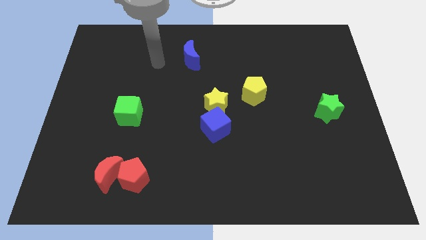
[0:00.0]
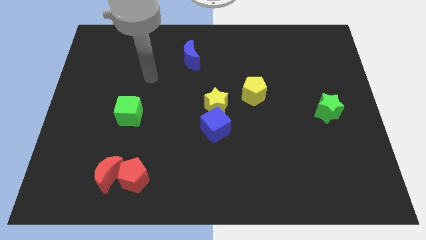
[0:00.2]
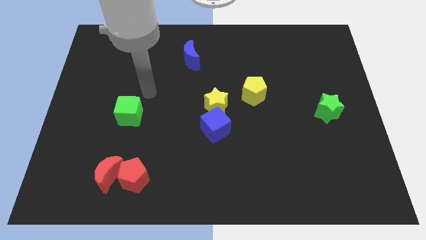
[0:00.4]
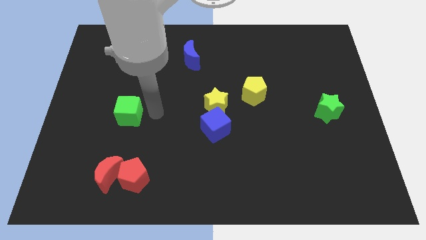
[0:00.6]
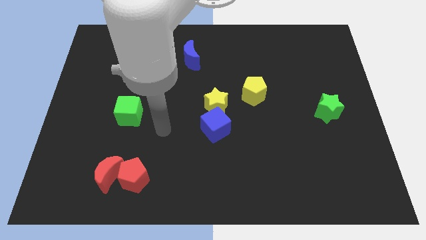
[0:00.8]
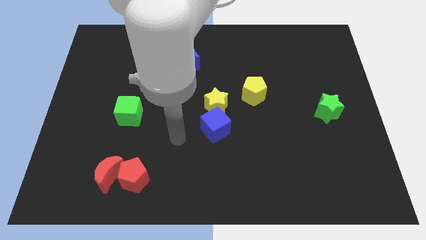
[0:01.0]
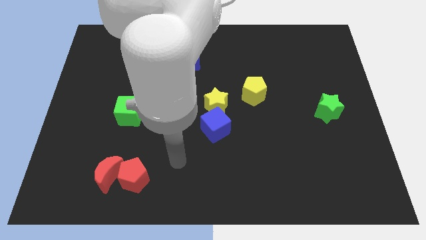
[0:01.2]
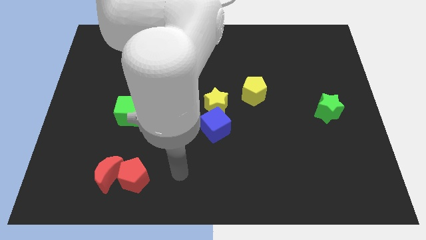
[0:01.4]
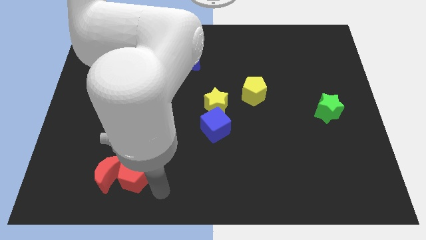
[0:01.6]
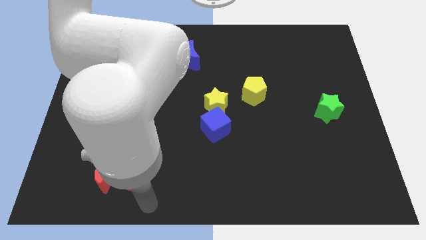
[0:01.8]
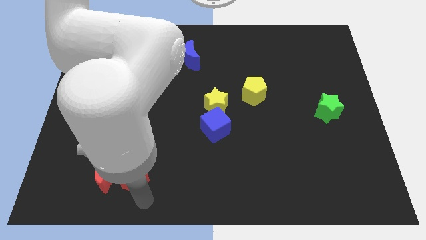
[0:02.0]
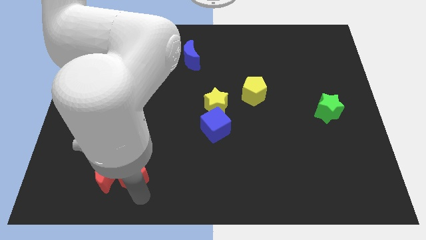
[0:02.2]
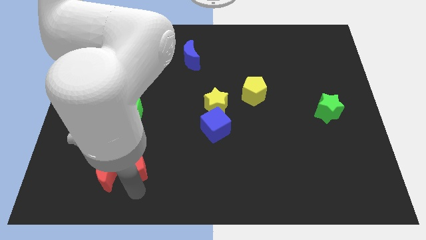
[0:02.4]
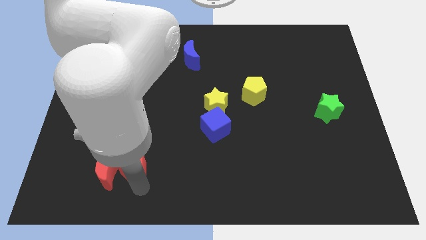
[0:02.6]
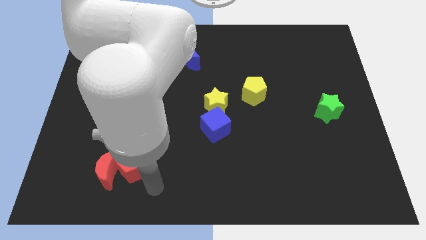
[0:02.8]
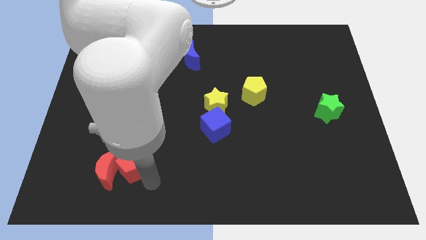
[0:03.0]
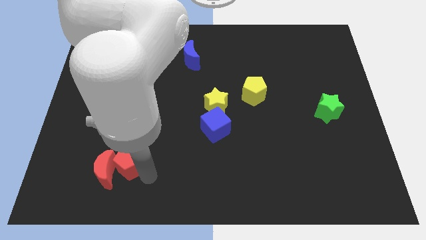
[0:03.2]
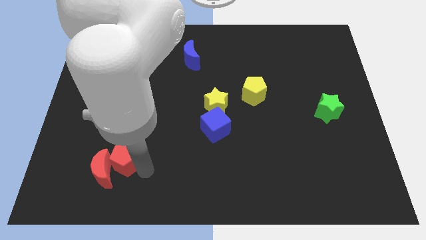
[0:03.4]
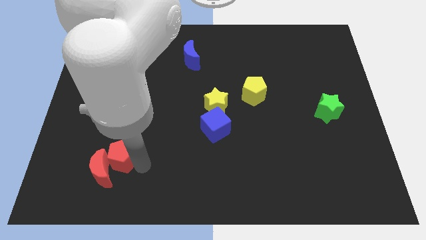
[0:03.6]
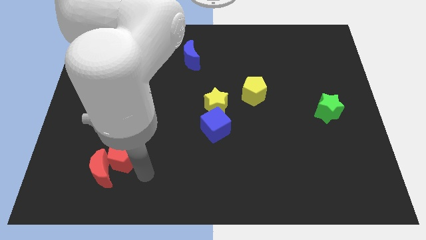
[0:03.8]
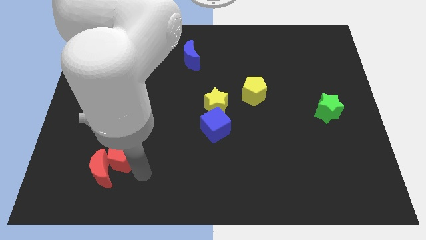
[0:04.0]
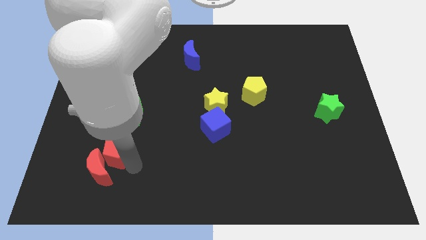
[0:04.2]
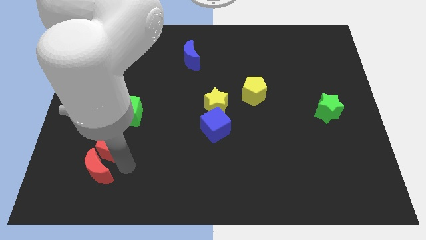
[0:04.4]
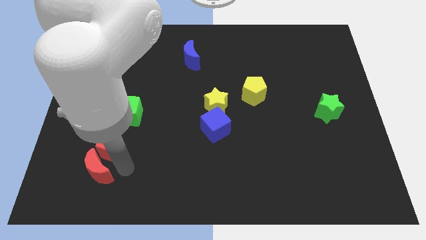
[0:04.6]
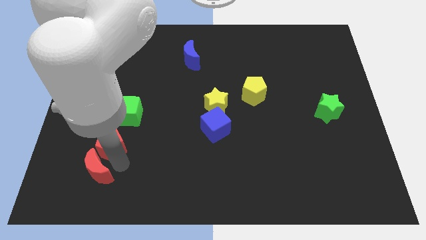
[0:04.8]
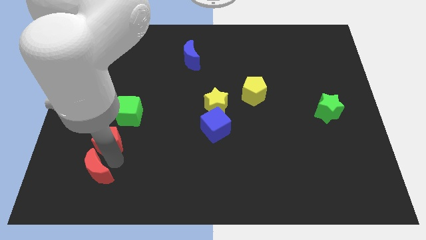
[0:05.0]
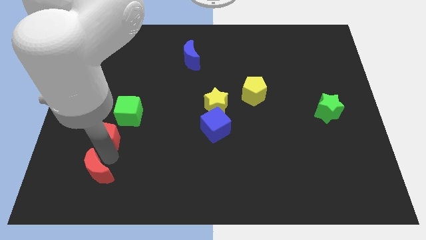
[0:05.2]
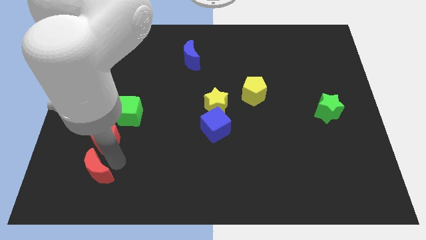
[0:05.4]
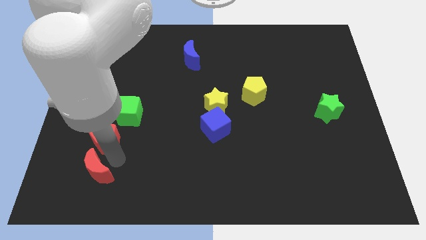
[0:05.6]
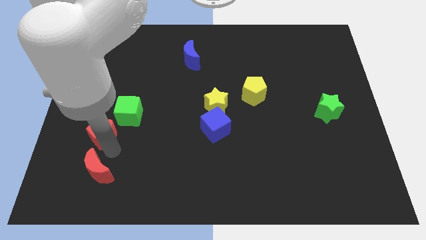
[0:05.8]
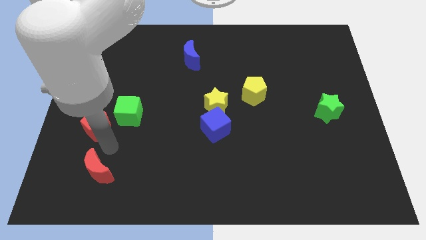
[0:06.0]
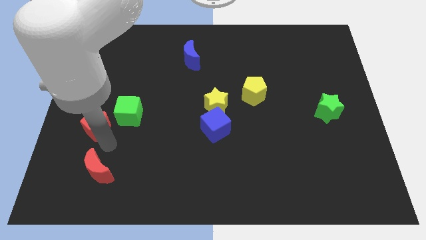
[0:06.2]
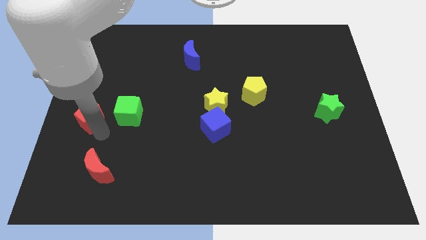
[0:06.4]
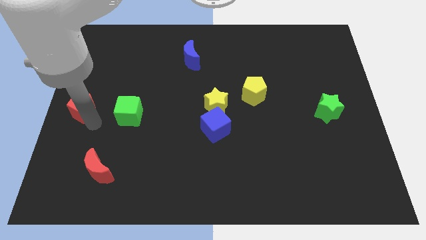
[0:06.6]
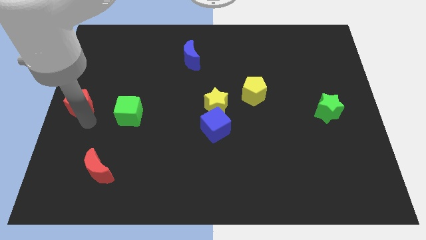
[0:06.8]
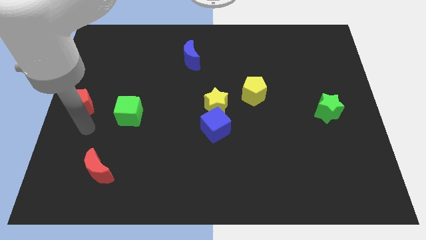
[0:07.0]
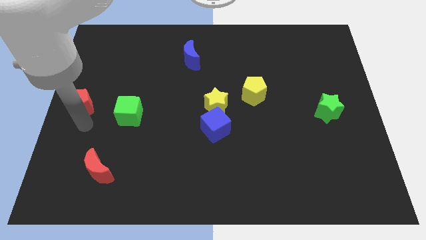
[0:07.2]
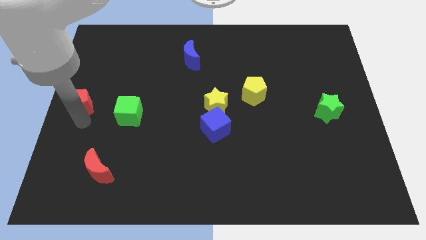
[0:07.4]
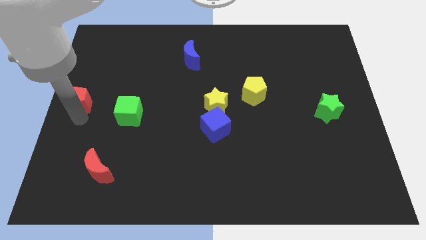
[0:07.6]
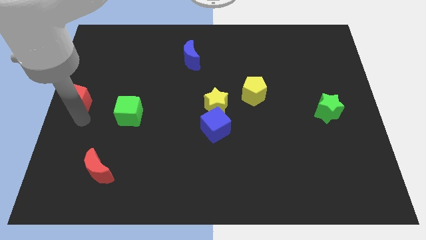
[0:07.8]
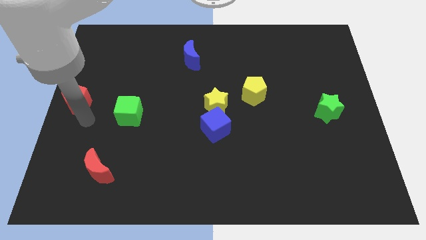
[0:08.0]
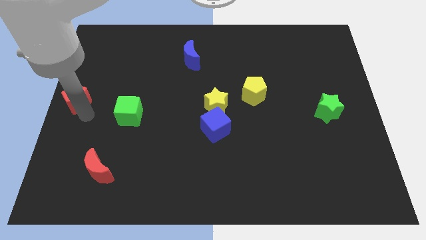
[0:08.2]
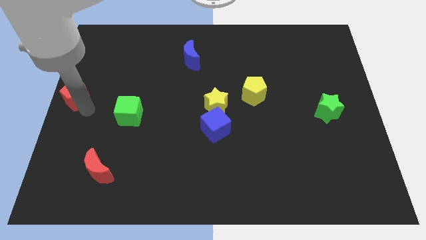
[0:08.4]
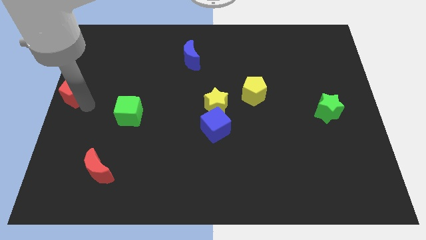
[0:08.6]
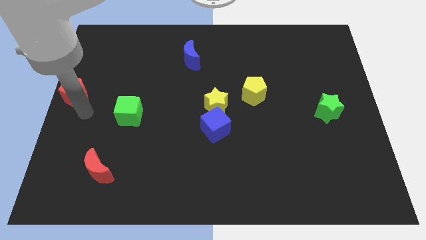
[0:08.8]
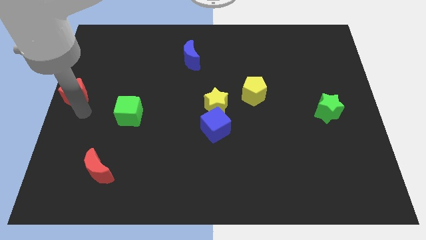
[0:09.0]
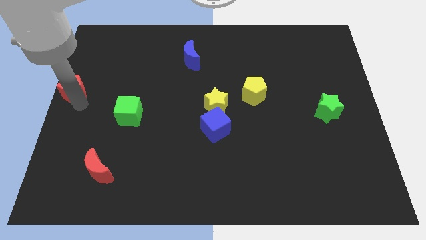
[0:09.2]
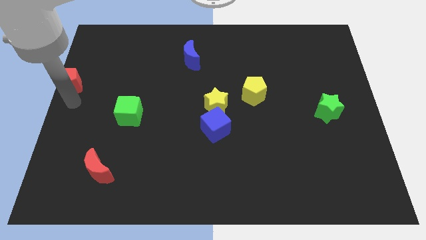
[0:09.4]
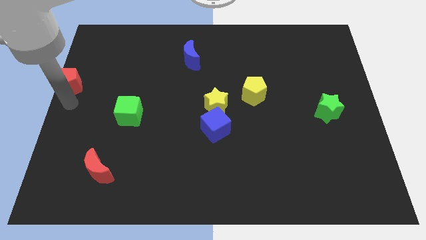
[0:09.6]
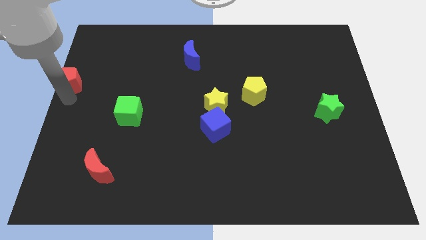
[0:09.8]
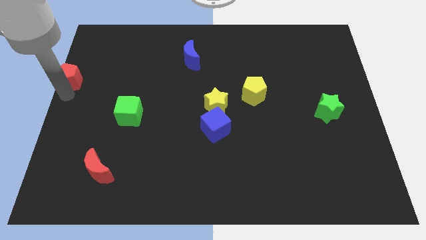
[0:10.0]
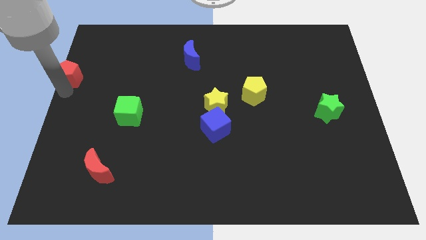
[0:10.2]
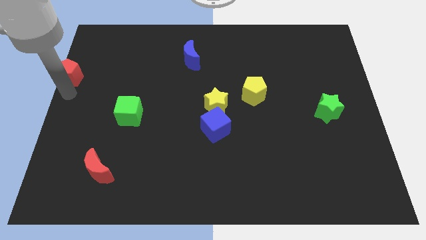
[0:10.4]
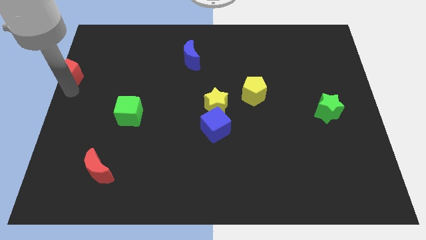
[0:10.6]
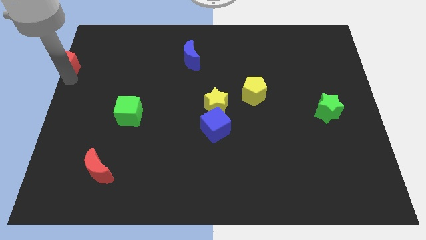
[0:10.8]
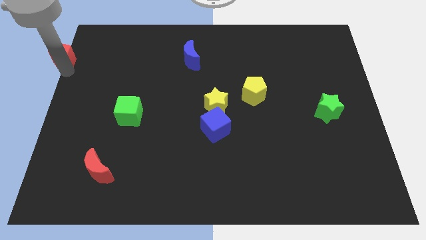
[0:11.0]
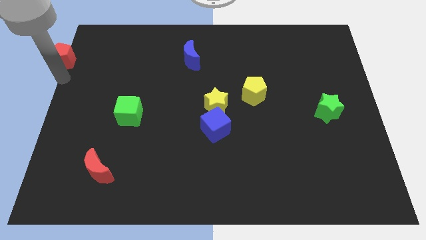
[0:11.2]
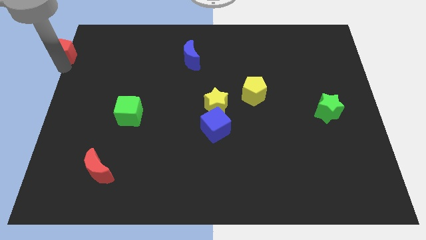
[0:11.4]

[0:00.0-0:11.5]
slide the red pentagon to the top left

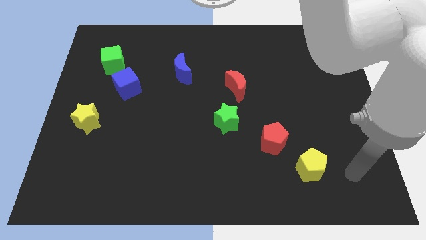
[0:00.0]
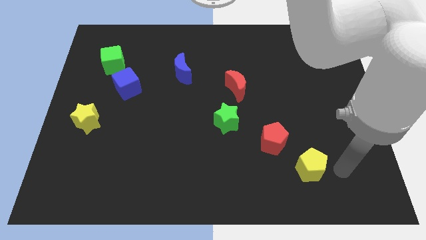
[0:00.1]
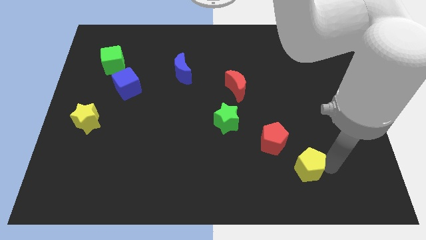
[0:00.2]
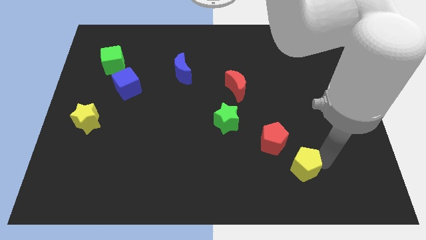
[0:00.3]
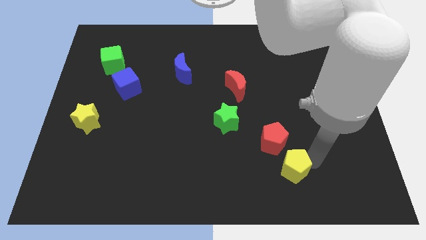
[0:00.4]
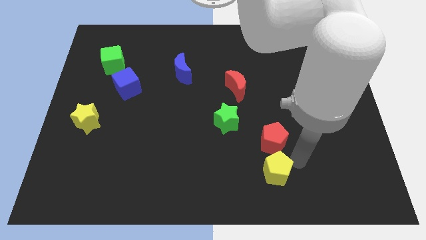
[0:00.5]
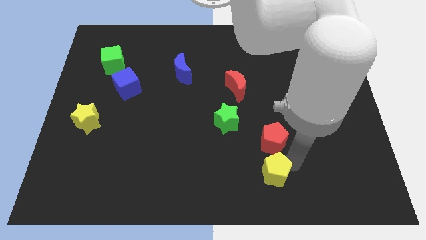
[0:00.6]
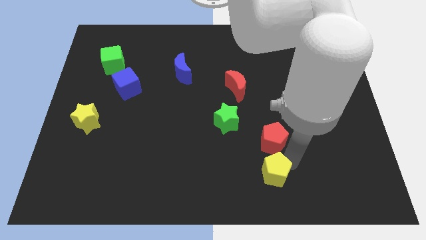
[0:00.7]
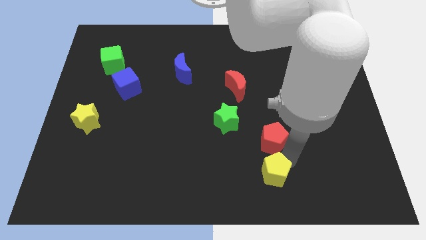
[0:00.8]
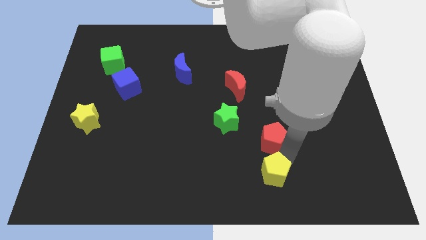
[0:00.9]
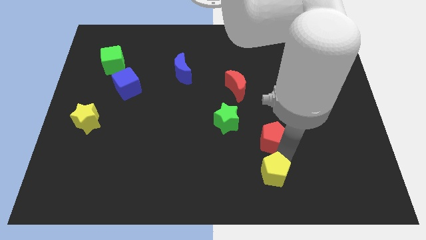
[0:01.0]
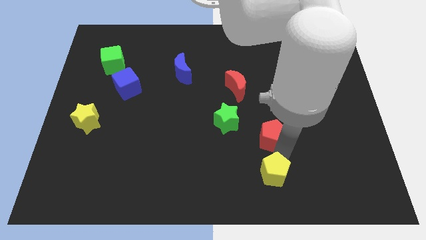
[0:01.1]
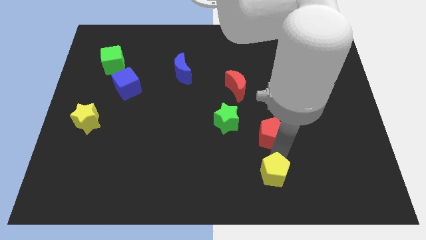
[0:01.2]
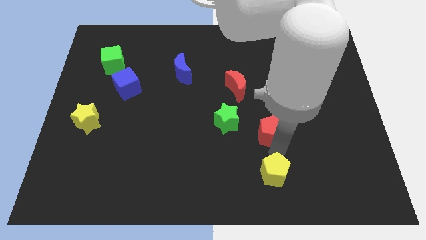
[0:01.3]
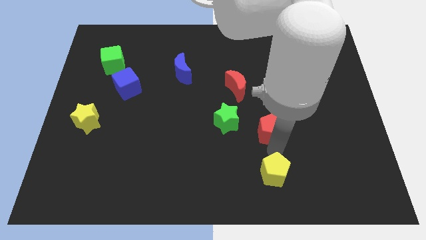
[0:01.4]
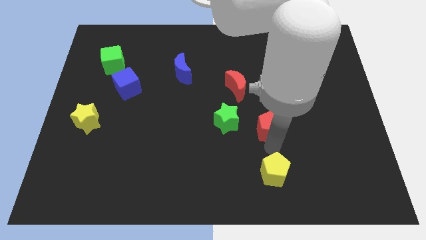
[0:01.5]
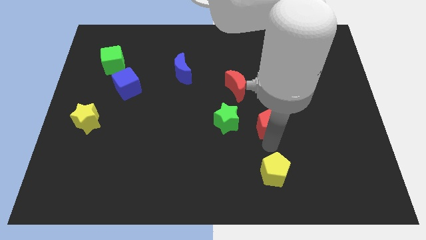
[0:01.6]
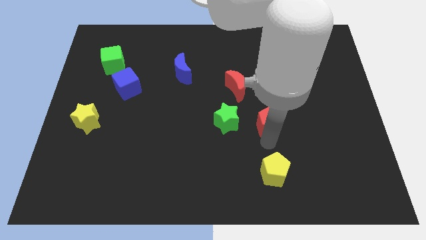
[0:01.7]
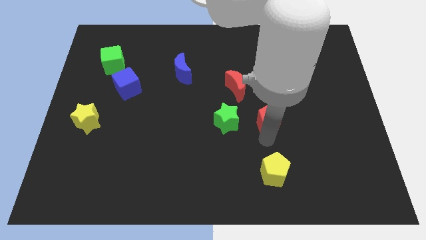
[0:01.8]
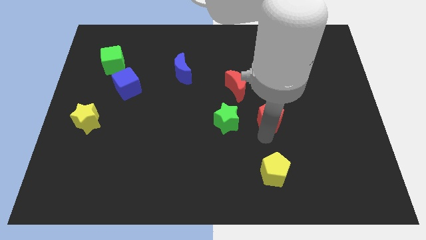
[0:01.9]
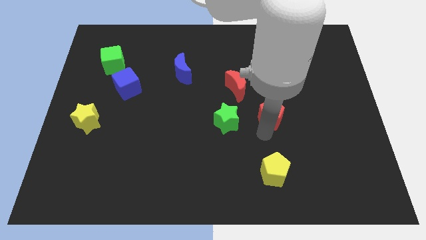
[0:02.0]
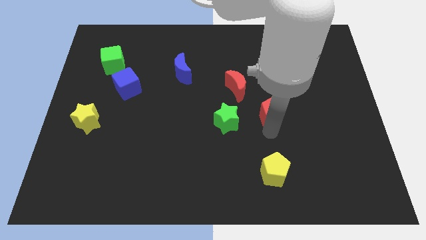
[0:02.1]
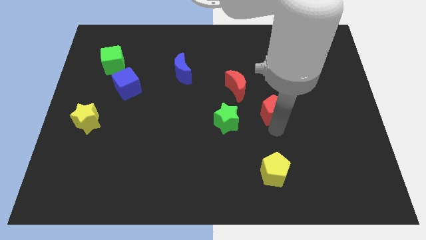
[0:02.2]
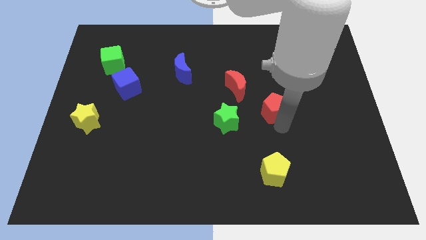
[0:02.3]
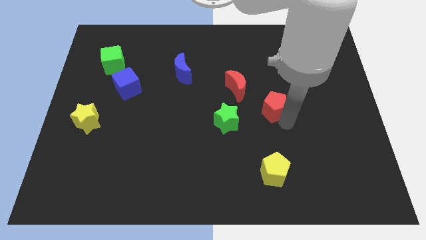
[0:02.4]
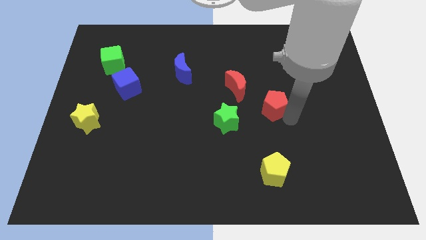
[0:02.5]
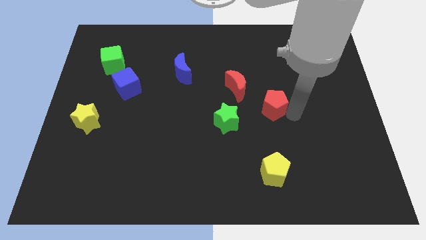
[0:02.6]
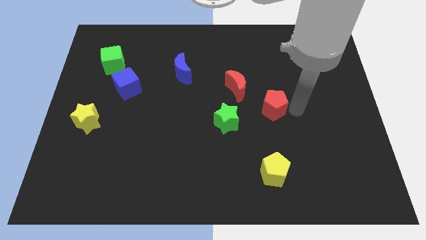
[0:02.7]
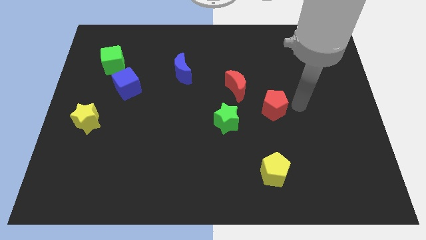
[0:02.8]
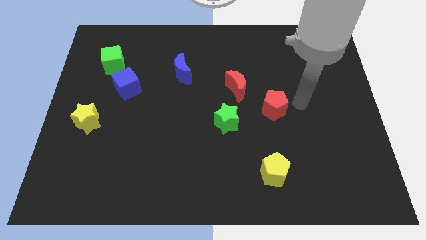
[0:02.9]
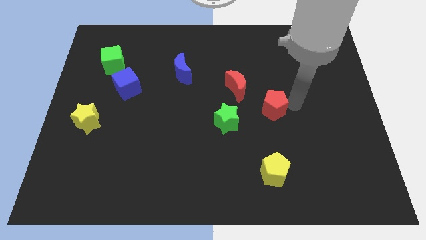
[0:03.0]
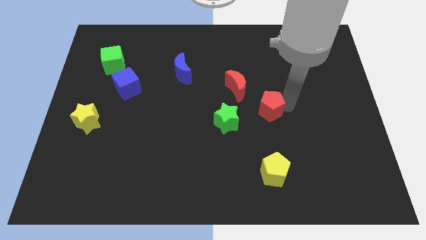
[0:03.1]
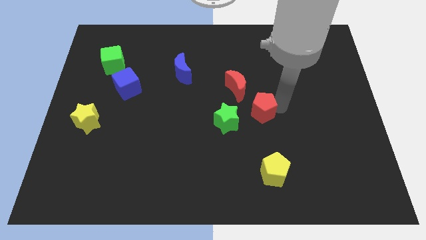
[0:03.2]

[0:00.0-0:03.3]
put the red pentagon to the middle
